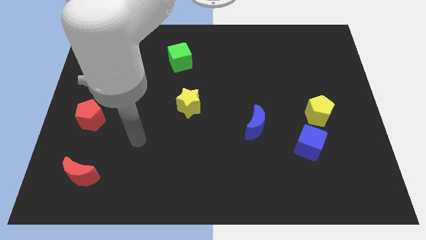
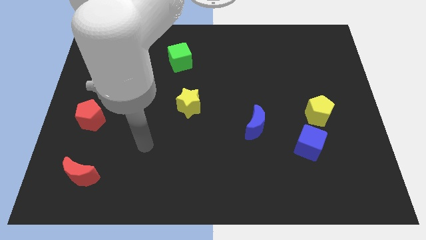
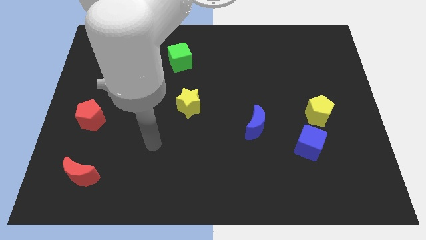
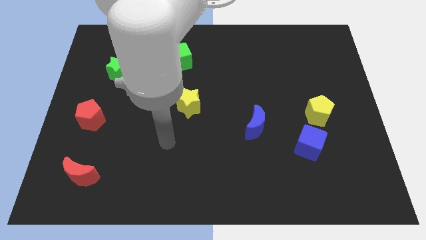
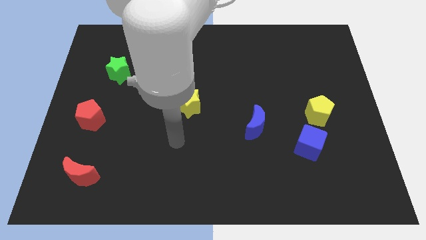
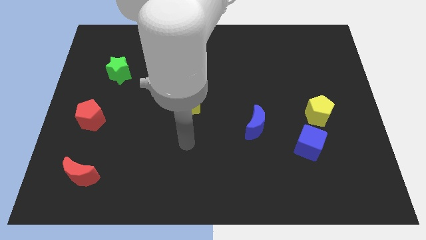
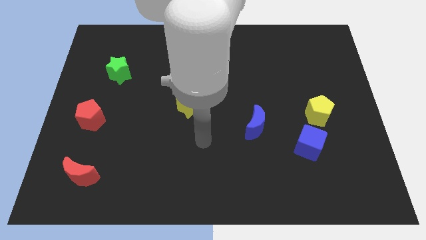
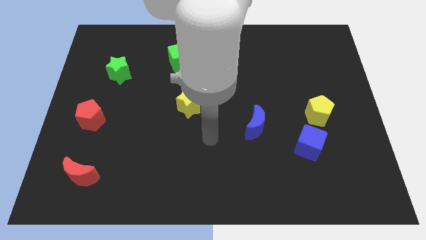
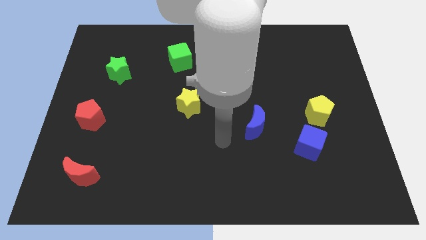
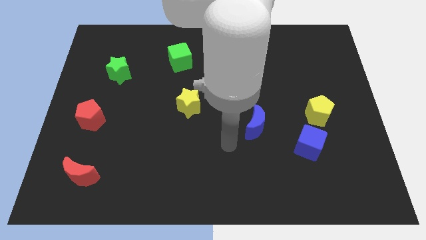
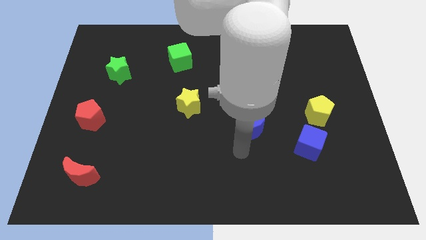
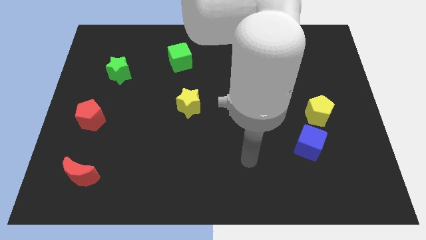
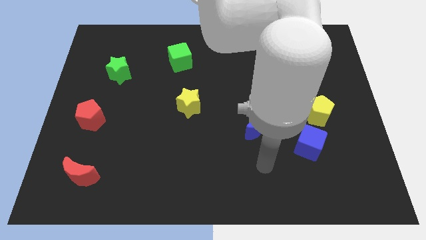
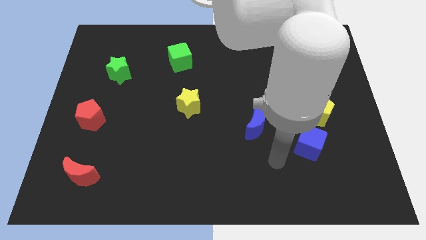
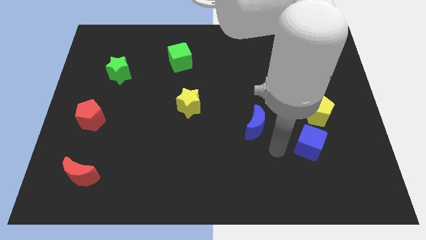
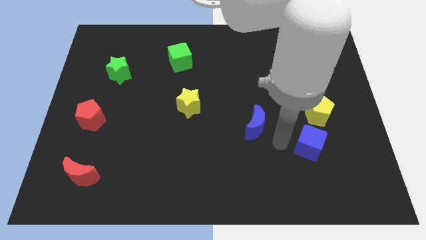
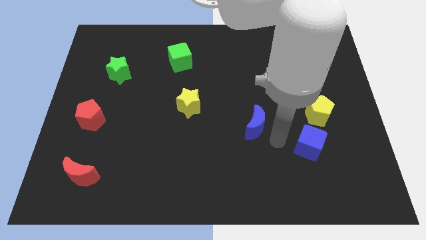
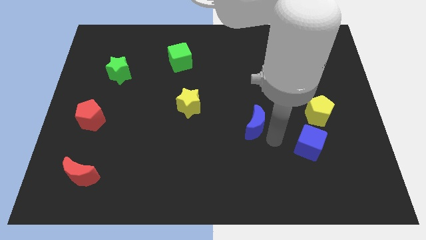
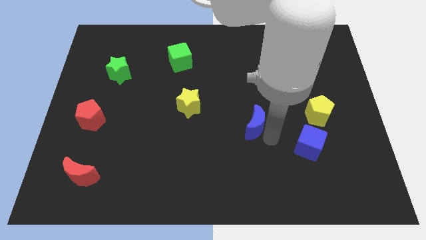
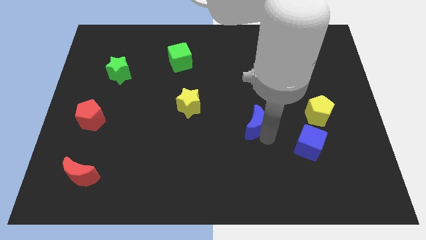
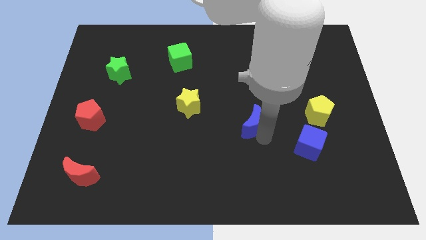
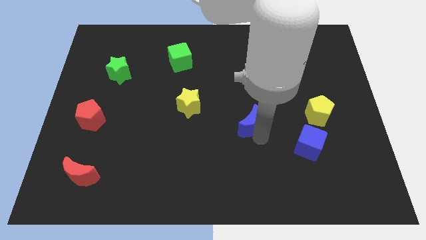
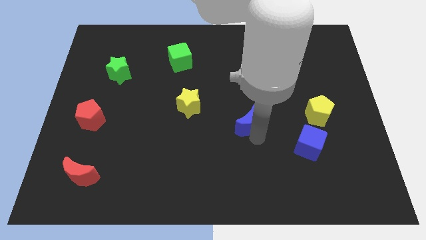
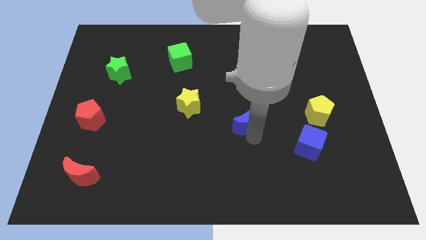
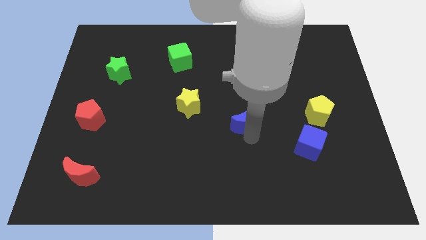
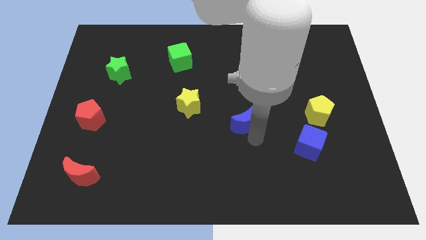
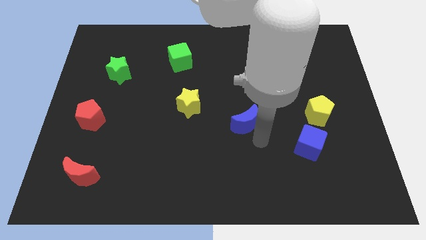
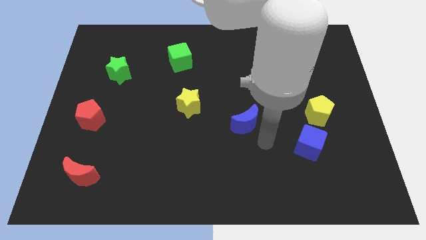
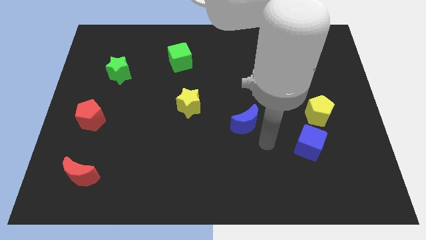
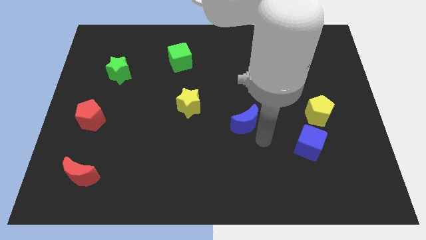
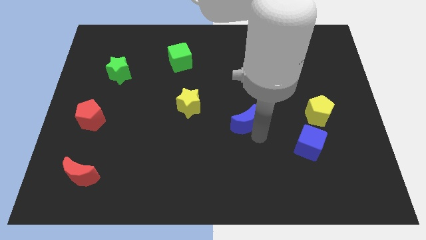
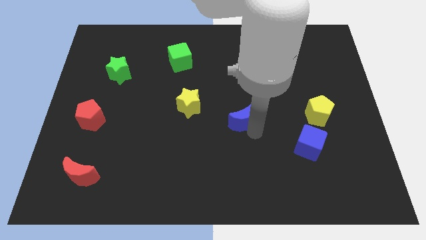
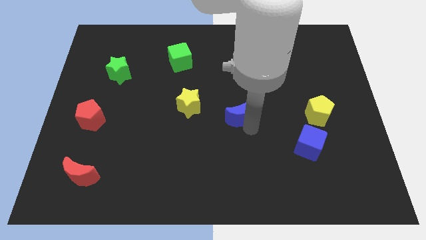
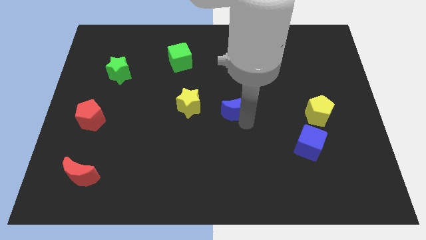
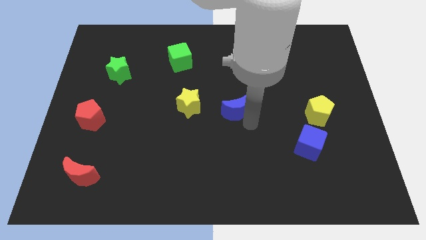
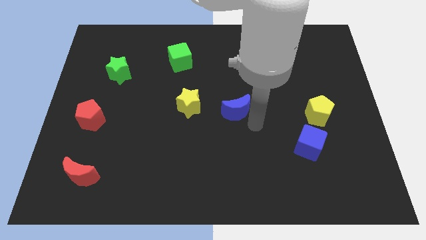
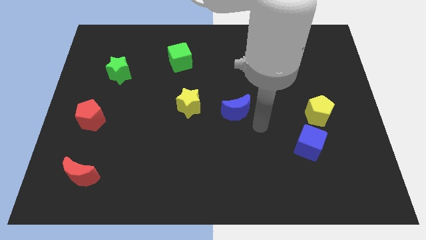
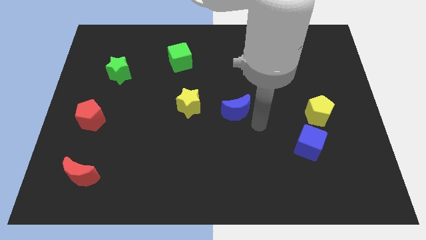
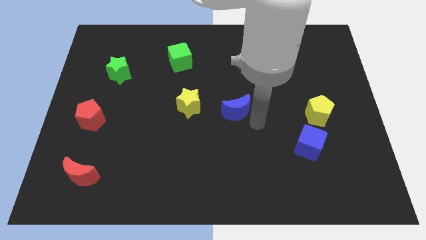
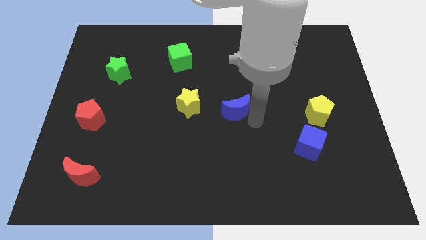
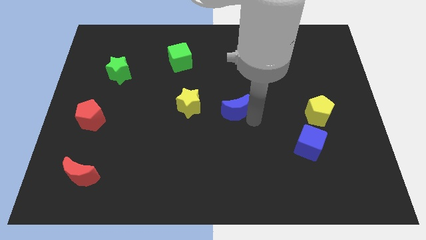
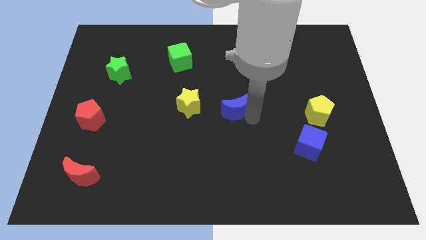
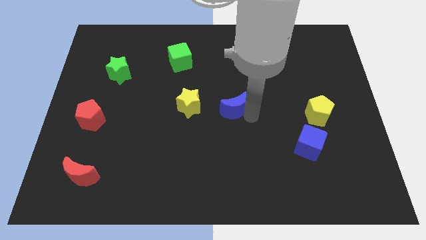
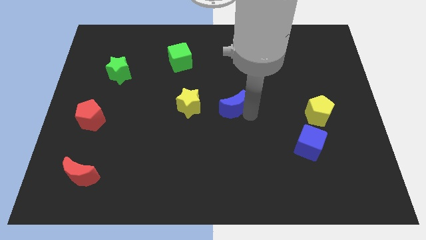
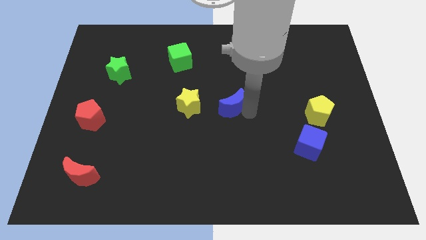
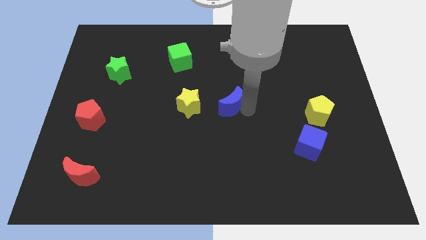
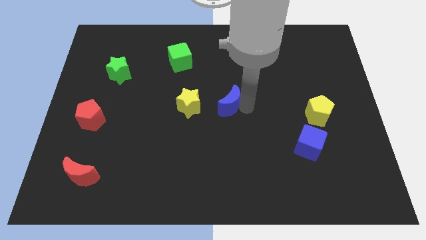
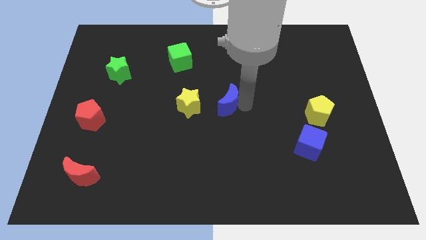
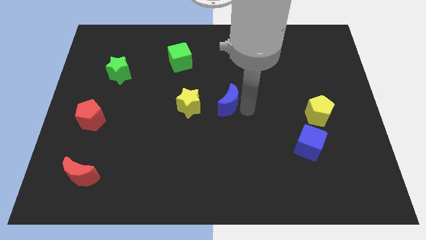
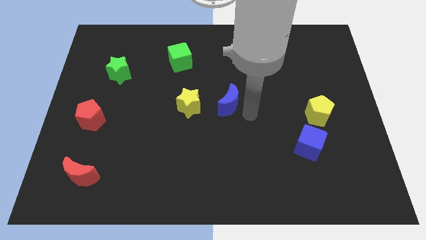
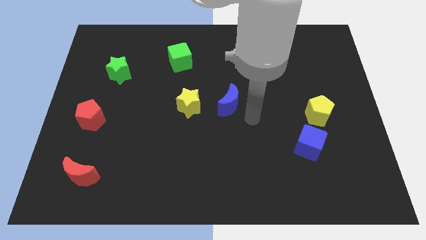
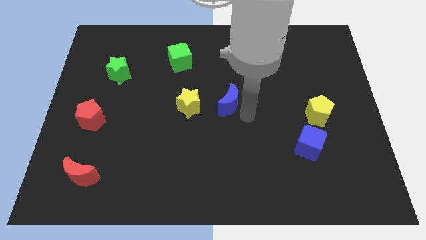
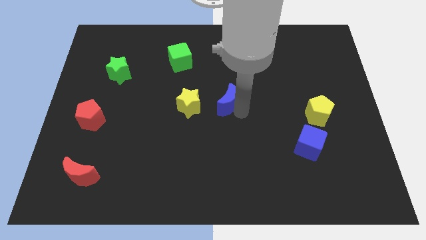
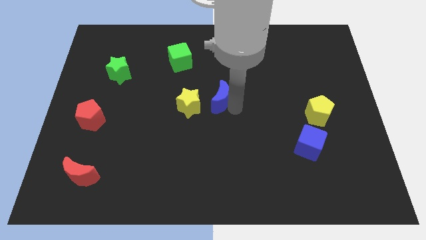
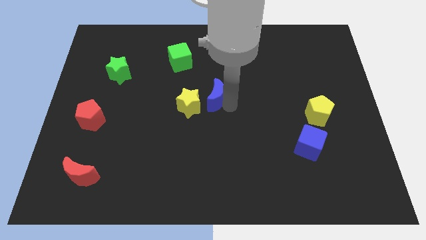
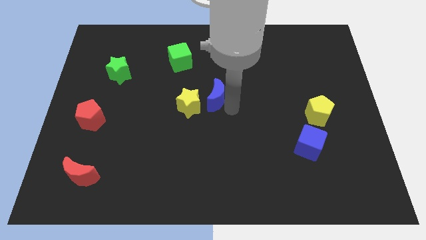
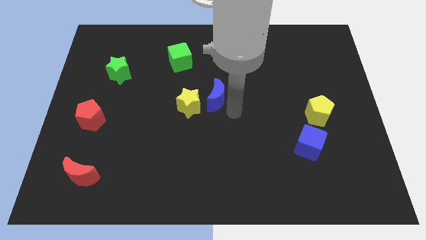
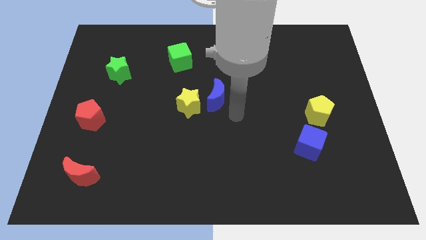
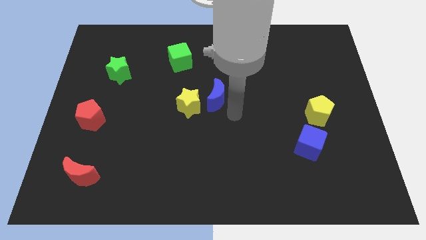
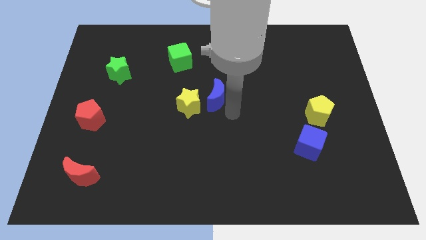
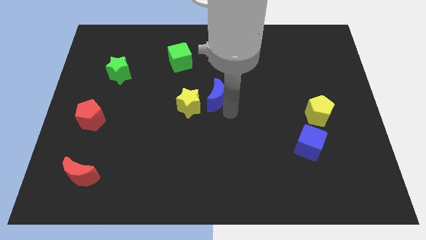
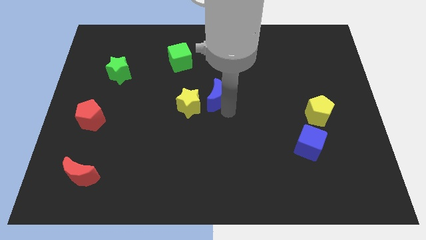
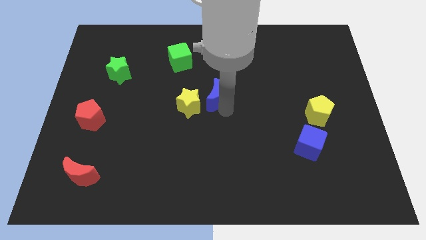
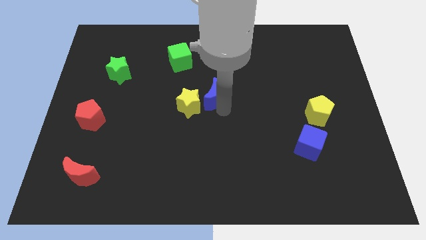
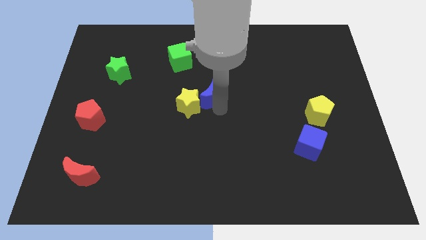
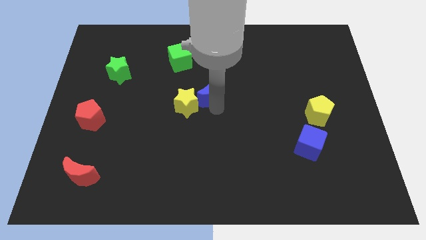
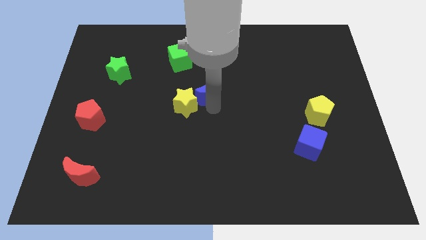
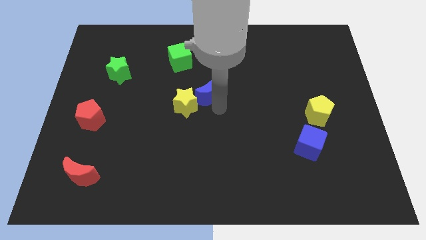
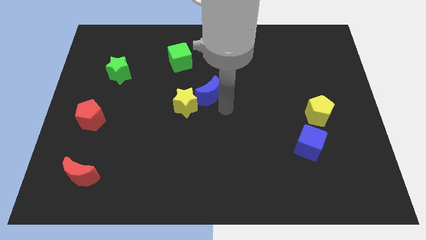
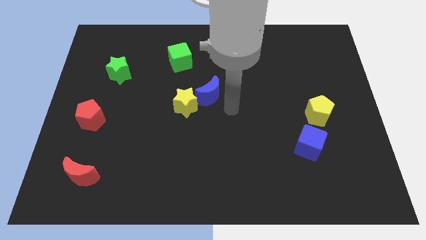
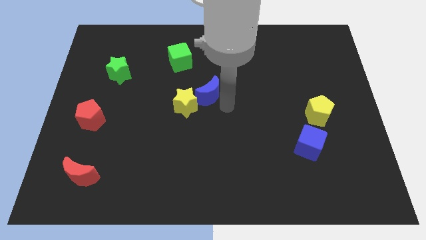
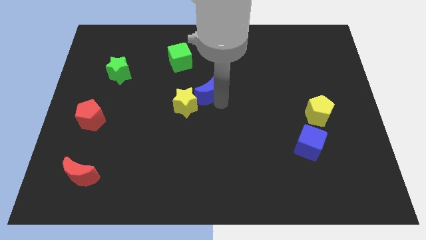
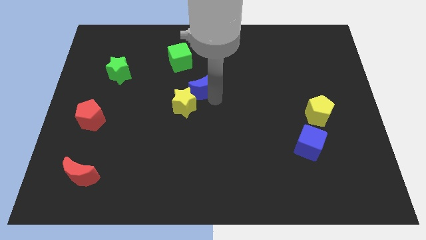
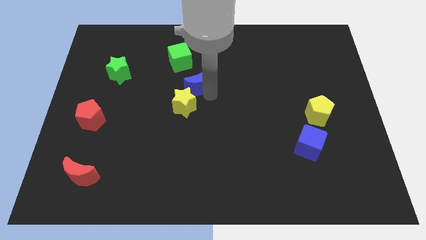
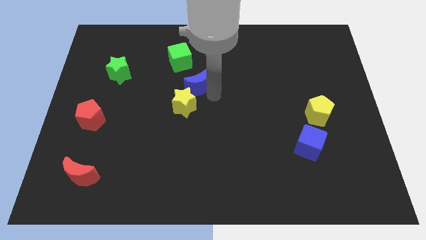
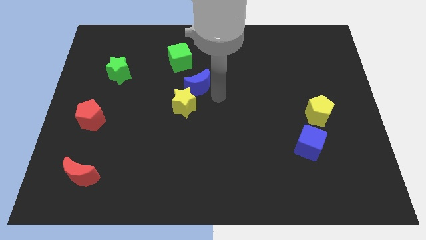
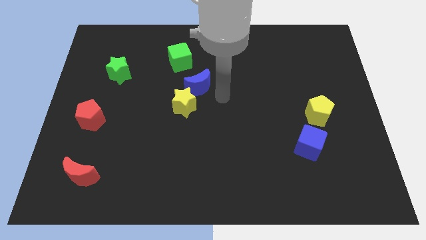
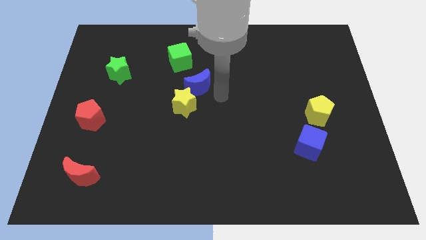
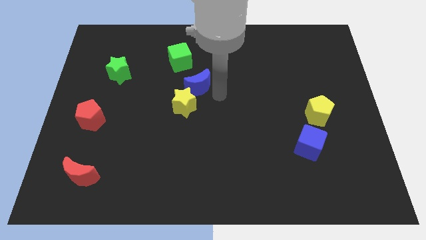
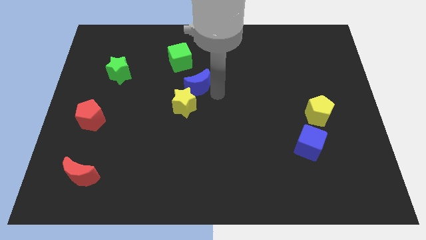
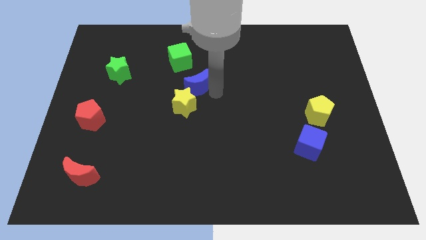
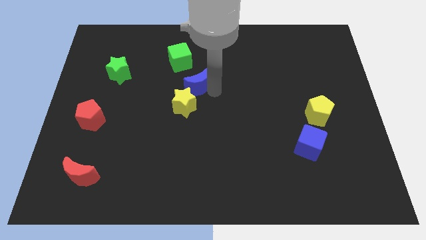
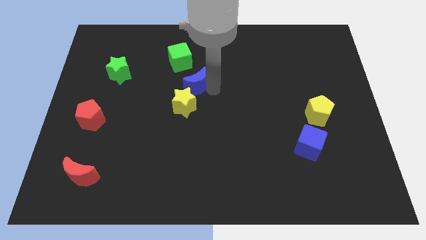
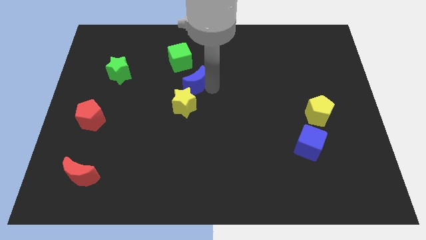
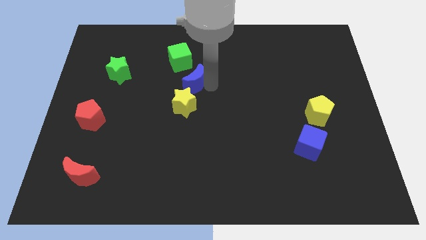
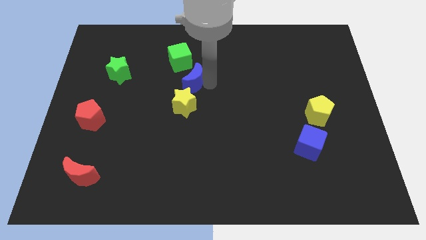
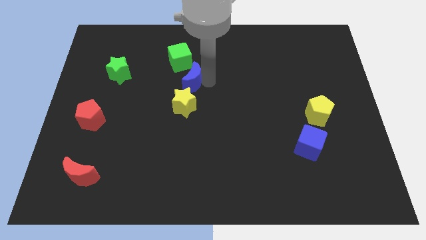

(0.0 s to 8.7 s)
slide the blue moon diagonally upwards and left
